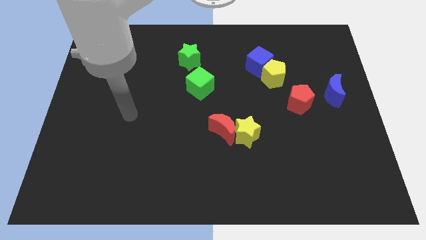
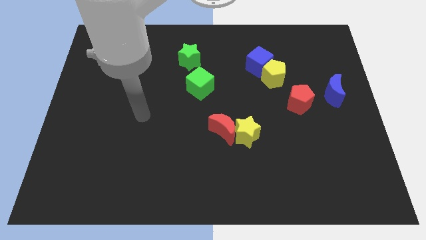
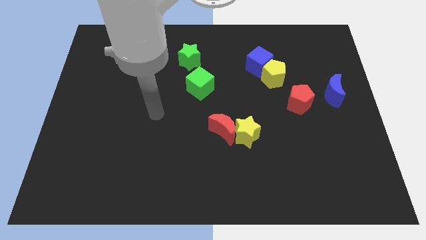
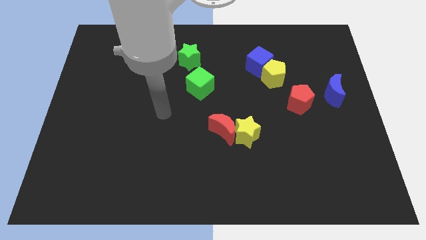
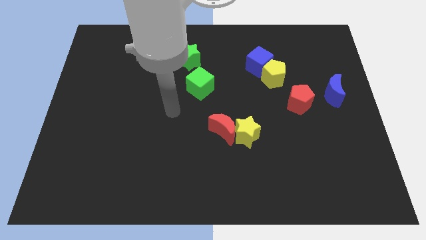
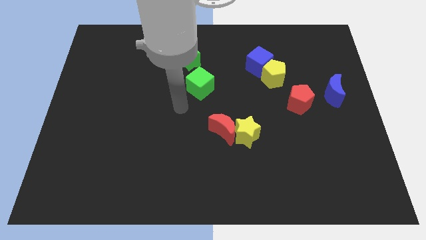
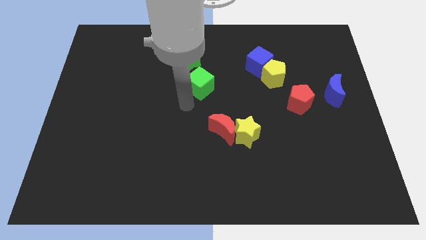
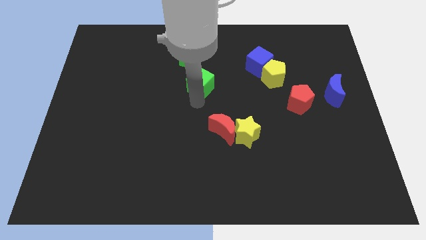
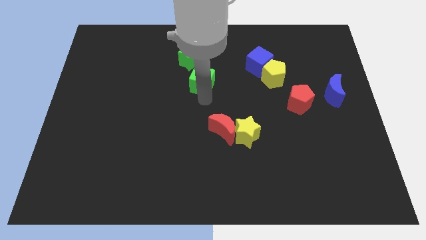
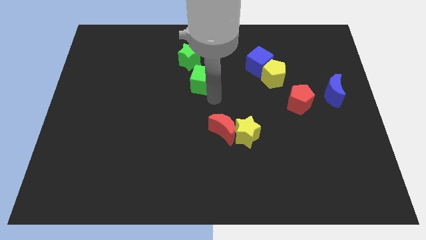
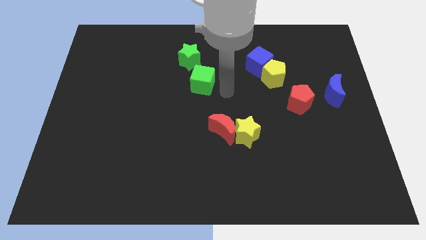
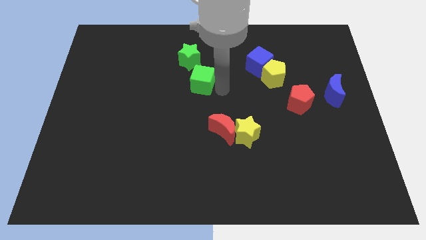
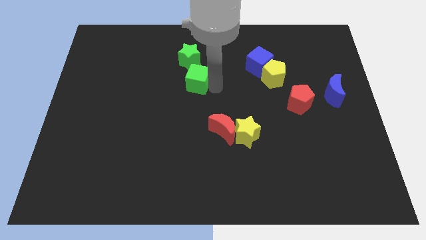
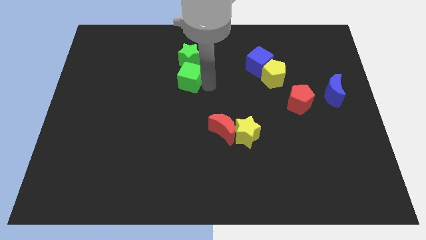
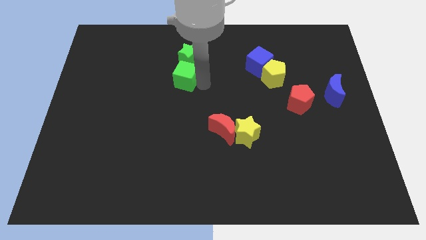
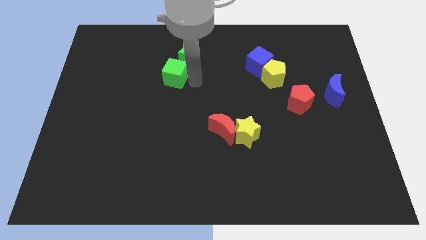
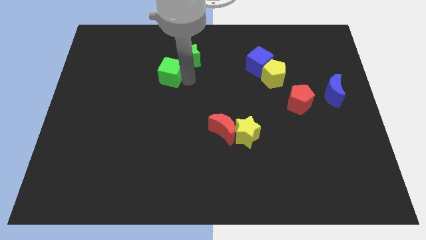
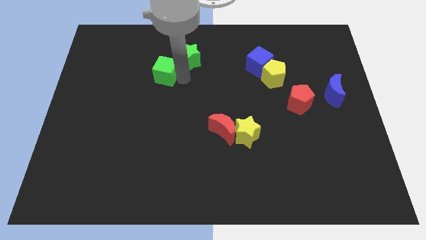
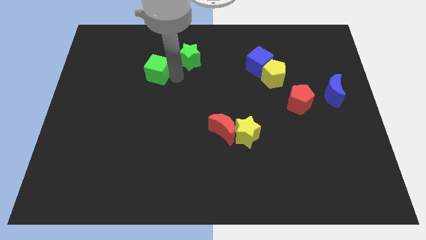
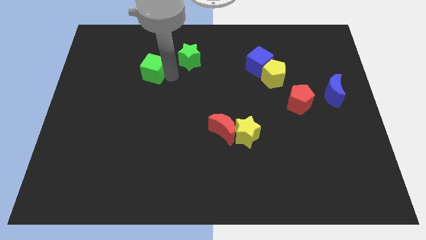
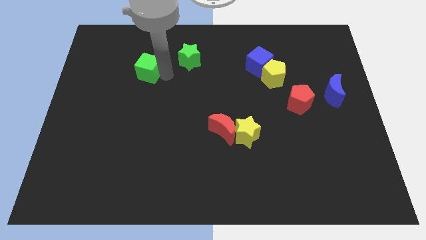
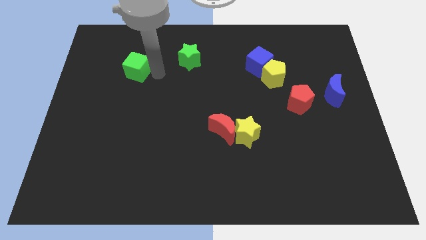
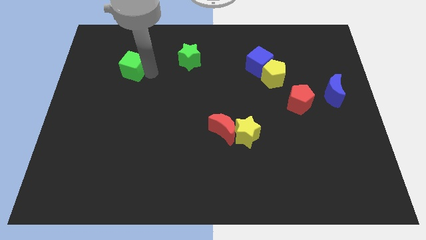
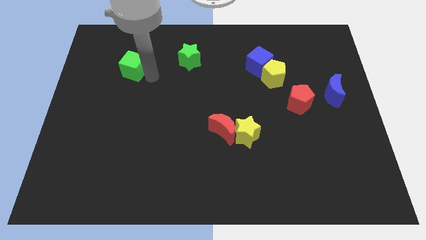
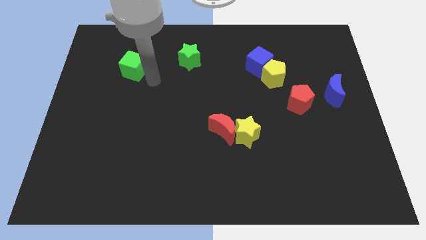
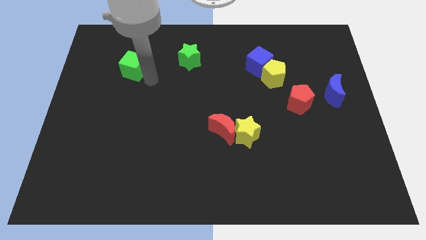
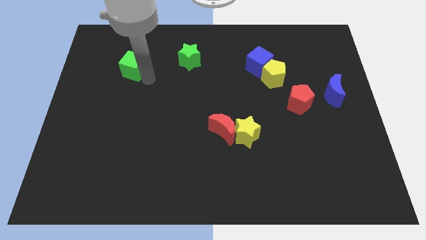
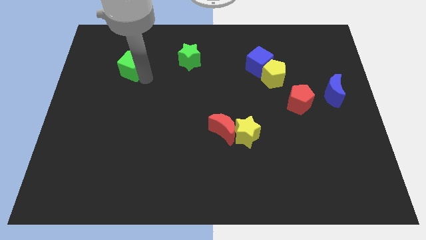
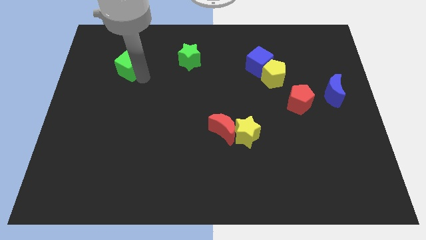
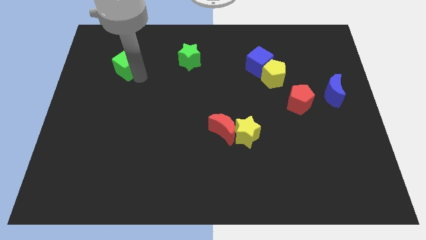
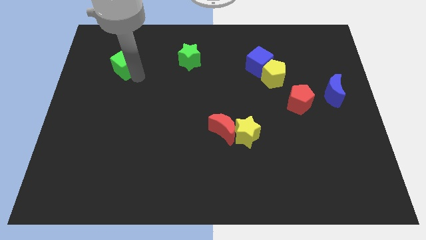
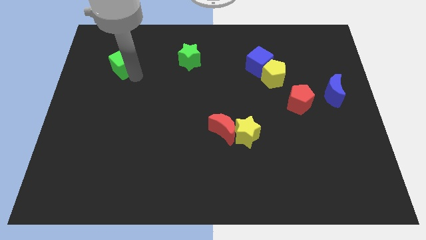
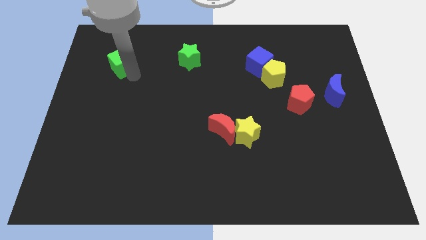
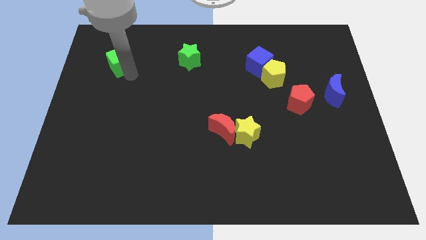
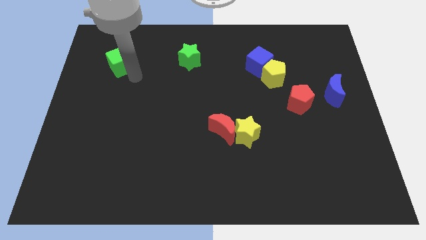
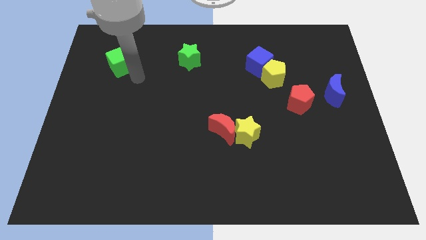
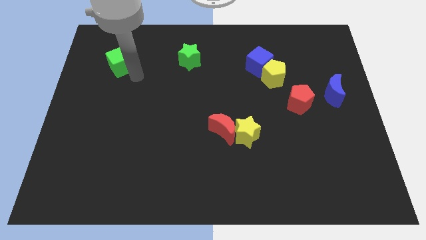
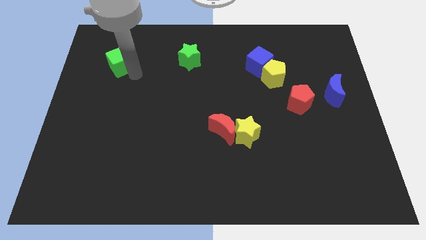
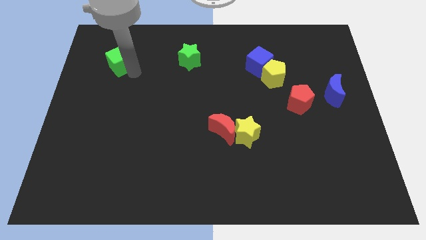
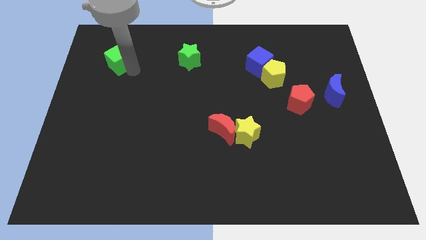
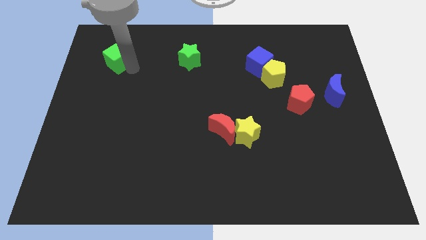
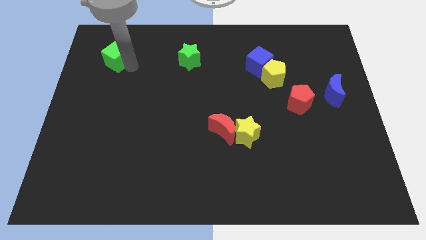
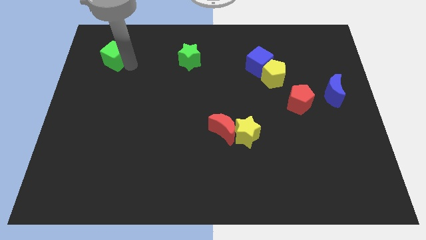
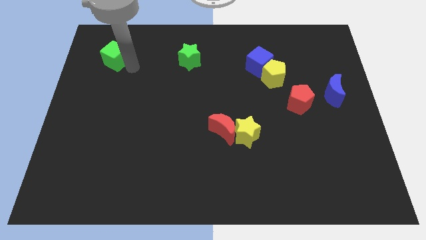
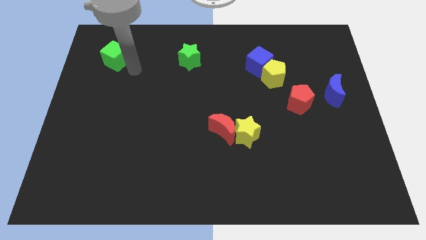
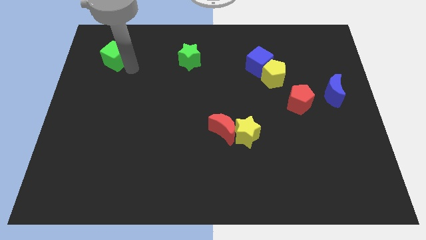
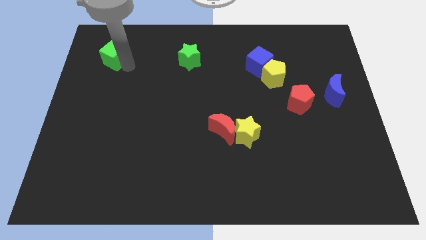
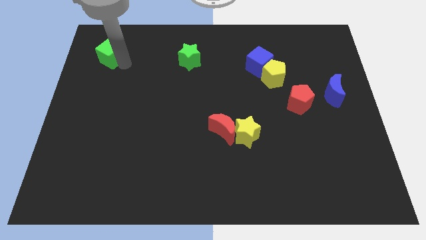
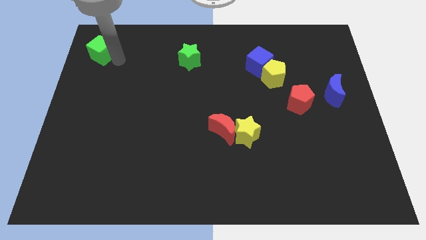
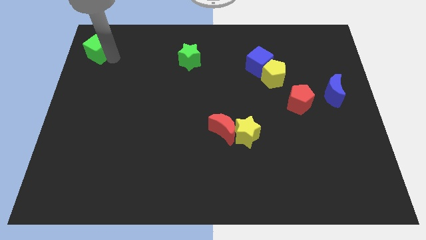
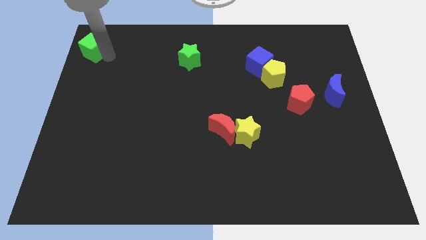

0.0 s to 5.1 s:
move the green cube to the top left of the board

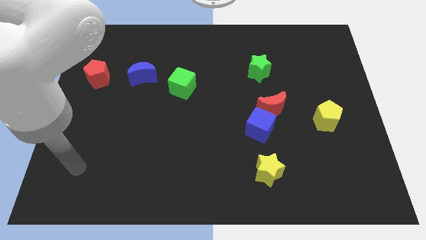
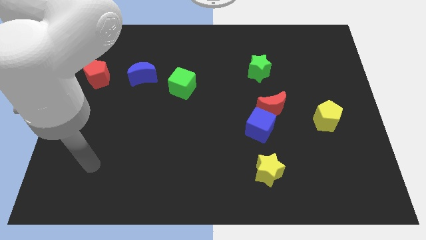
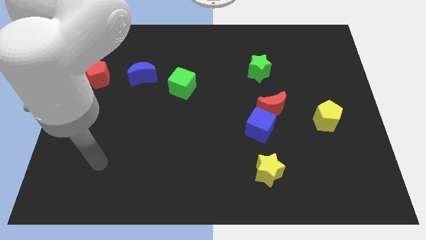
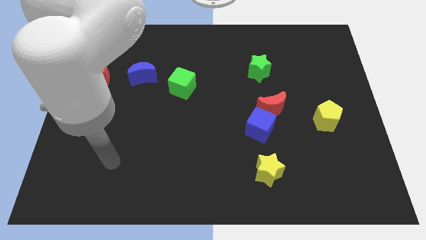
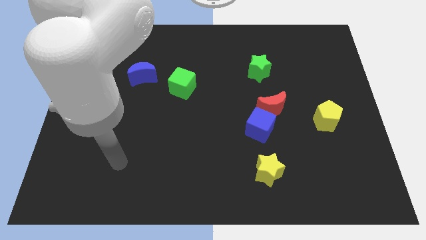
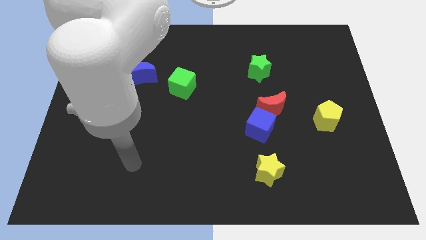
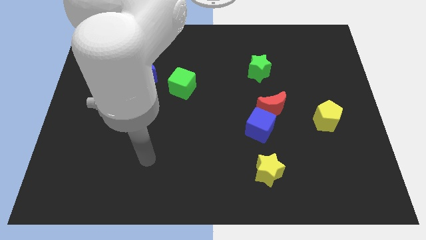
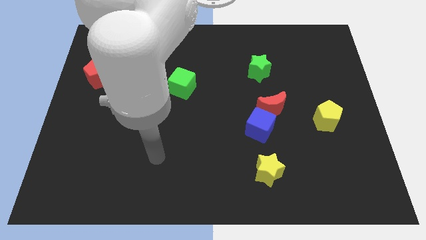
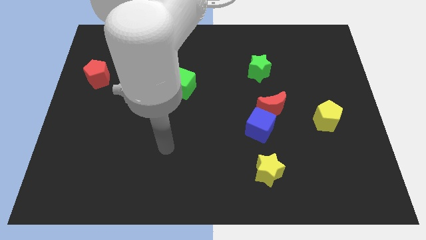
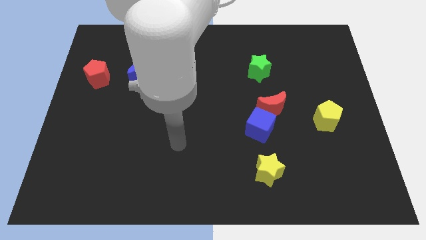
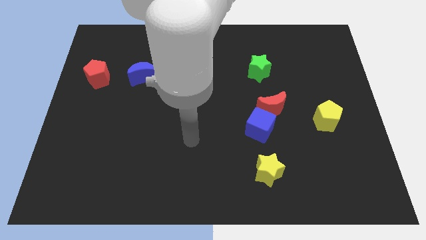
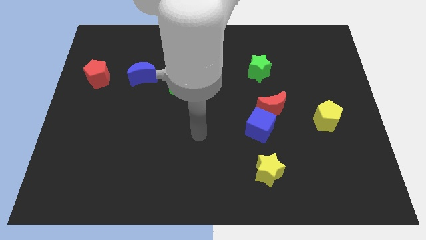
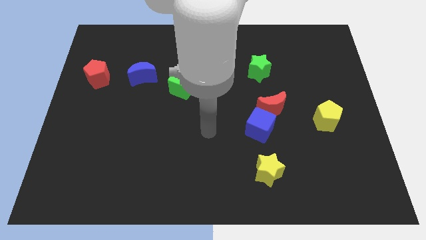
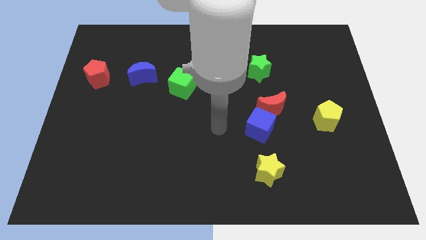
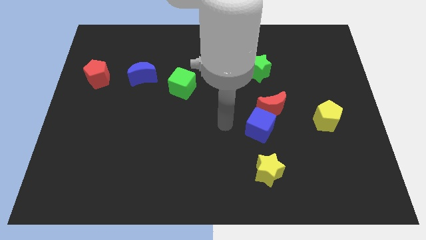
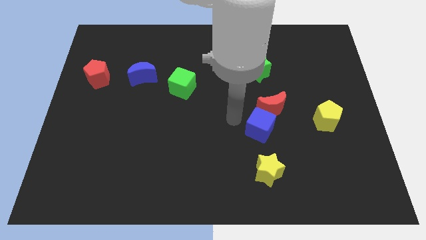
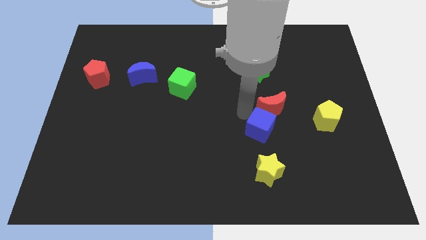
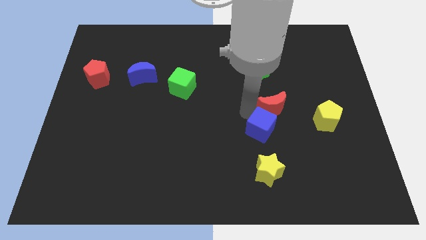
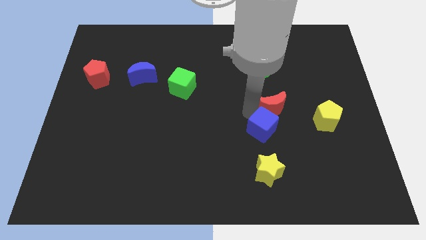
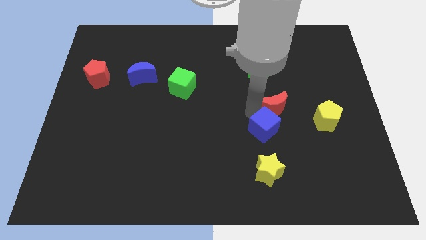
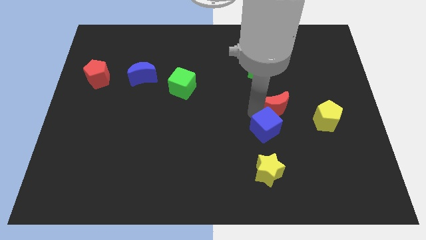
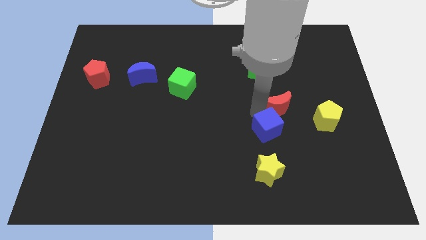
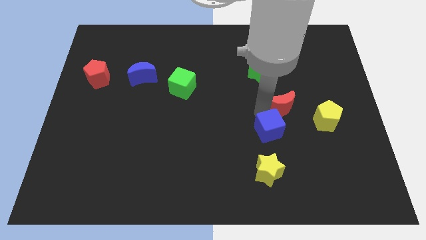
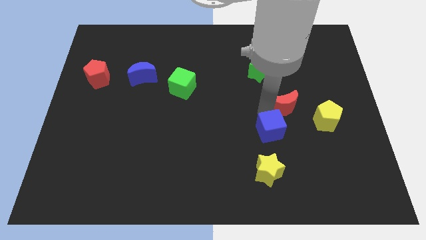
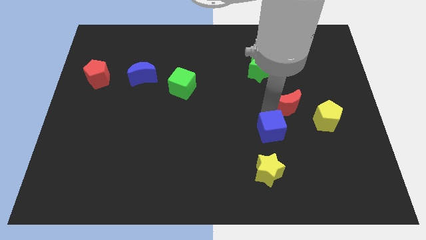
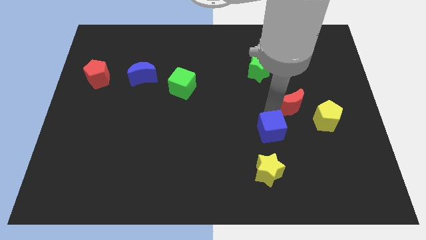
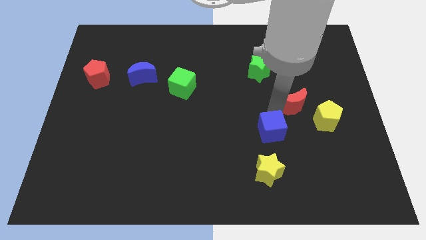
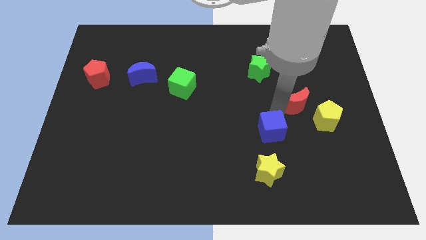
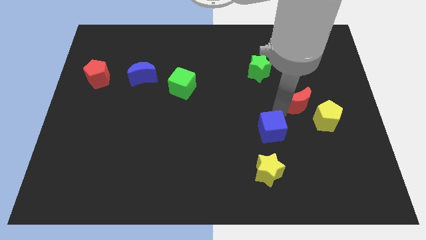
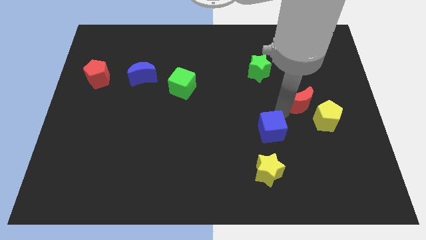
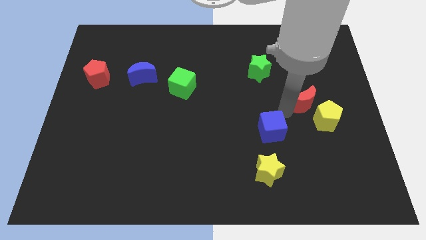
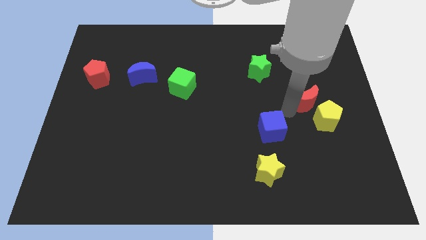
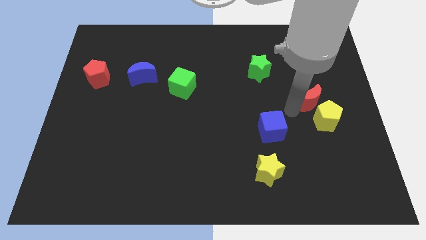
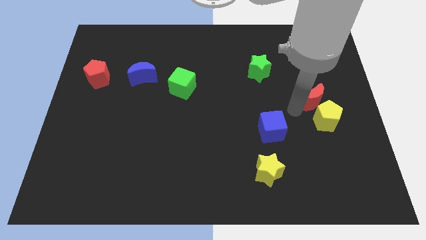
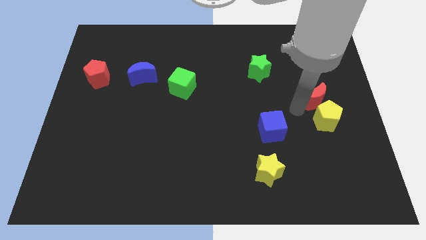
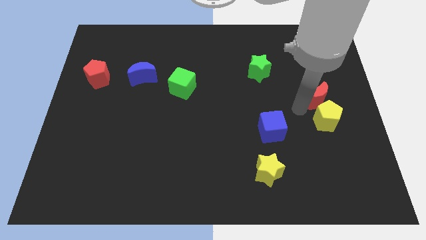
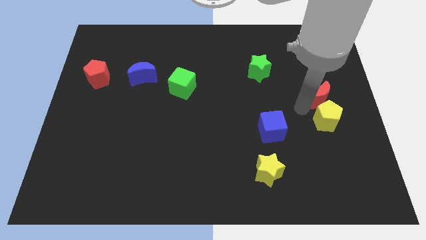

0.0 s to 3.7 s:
move the red moon to the right side of the board
